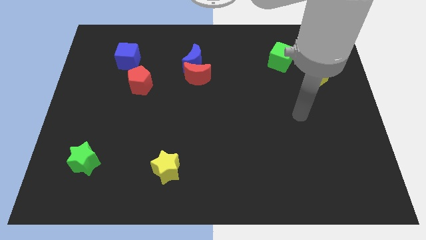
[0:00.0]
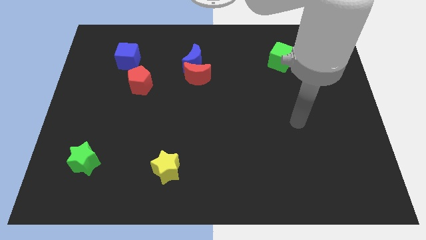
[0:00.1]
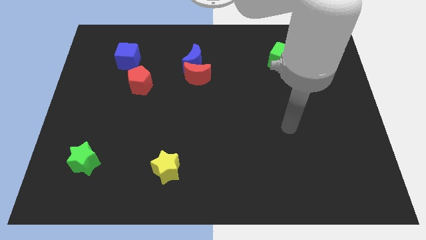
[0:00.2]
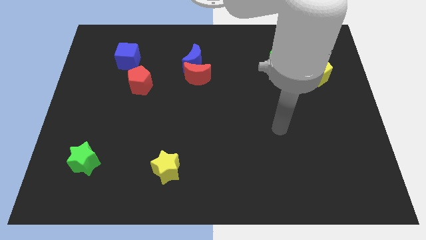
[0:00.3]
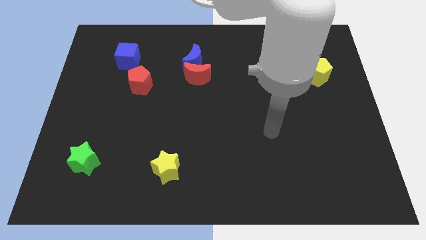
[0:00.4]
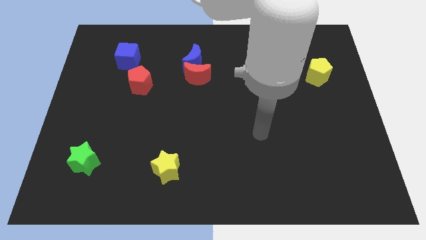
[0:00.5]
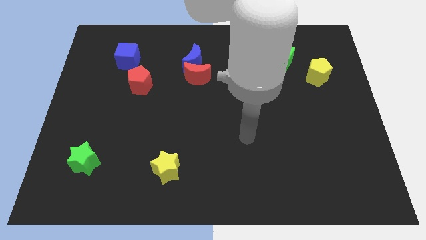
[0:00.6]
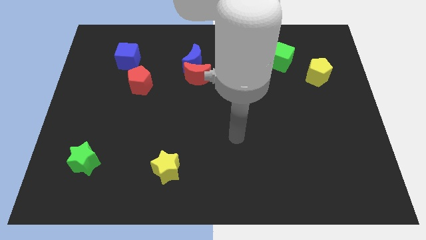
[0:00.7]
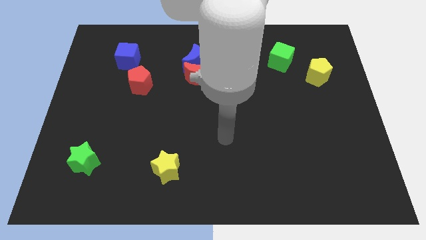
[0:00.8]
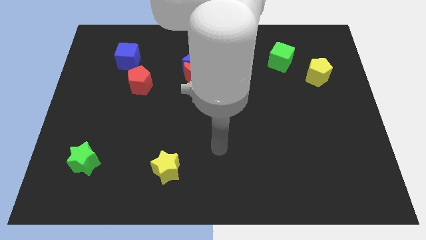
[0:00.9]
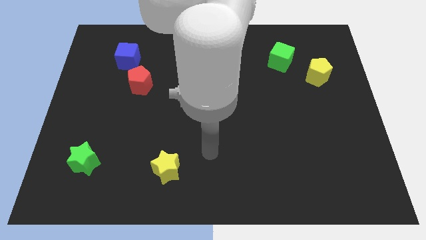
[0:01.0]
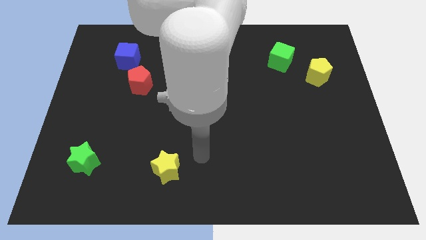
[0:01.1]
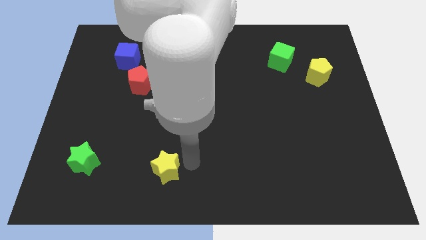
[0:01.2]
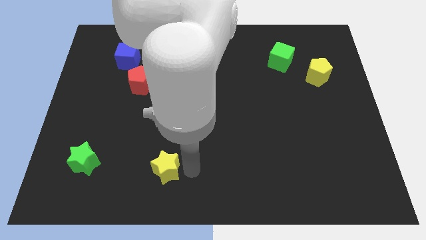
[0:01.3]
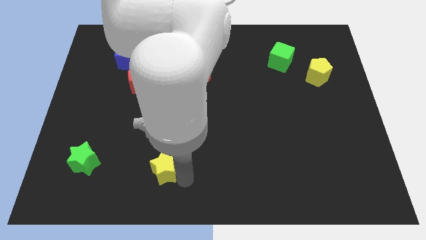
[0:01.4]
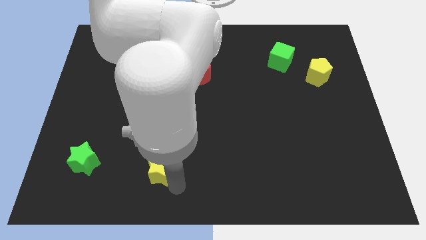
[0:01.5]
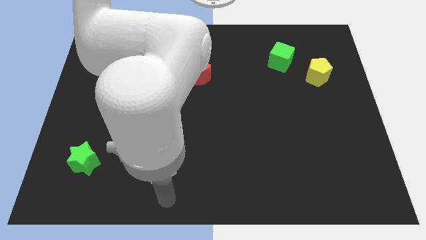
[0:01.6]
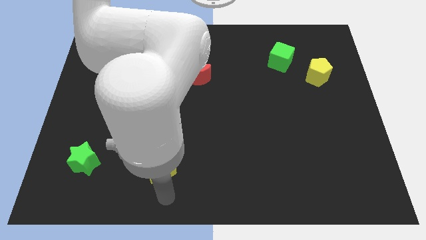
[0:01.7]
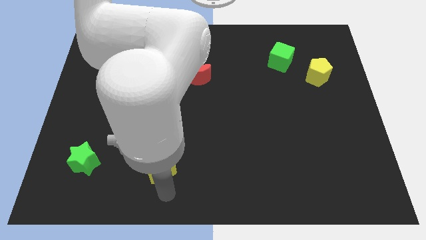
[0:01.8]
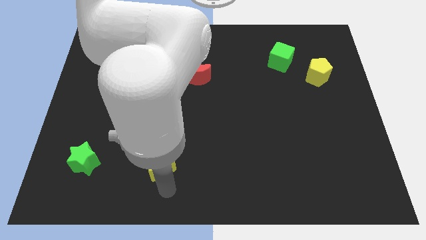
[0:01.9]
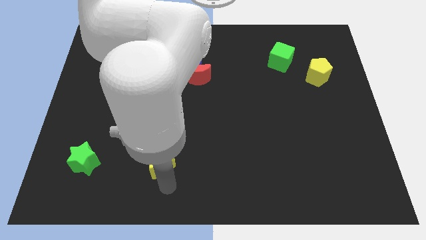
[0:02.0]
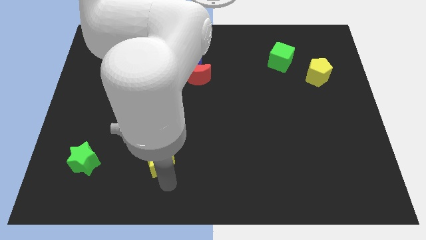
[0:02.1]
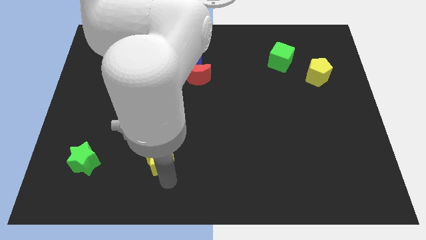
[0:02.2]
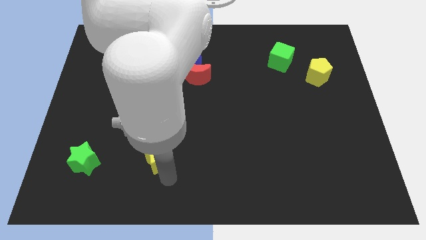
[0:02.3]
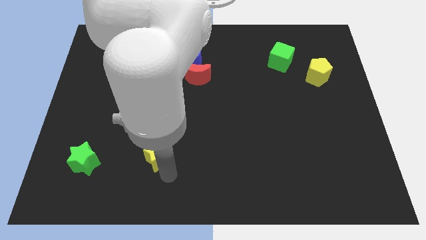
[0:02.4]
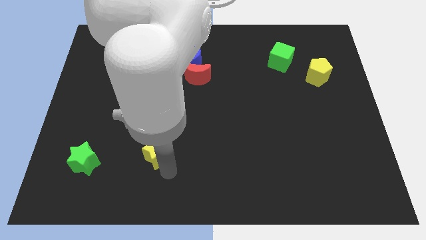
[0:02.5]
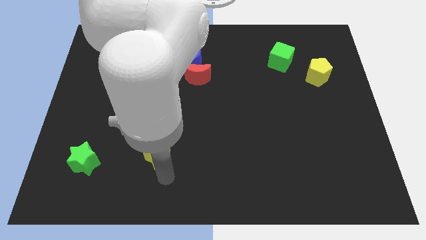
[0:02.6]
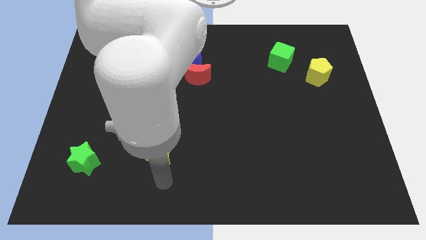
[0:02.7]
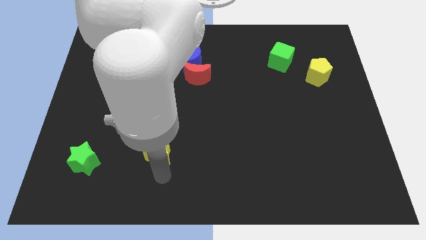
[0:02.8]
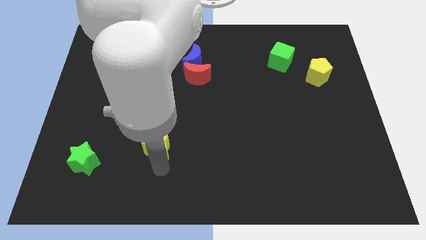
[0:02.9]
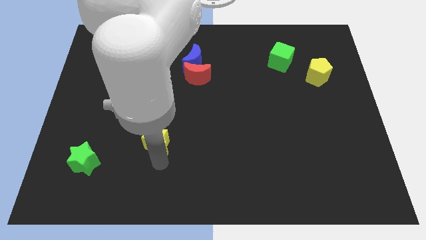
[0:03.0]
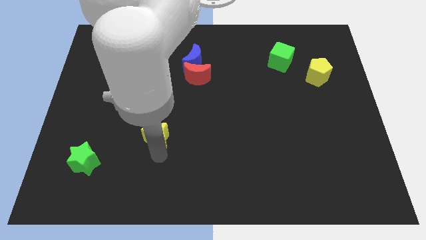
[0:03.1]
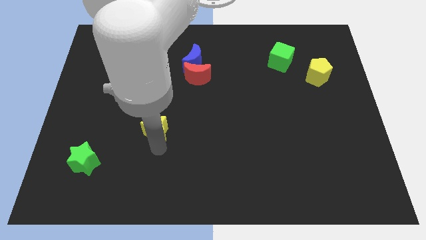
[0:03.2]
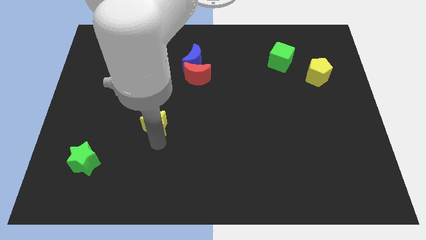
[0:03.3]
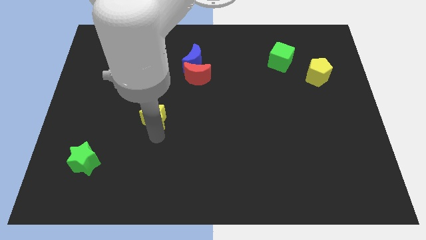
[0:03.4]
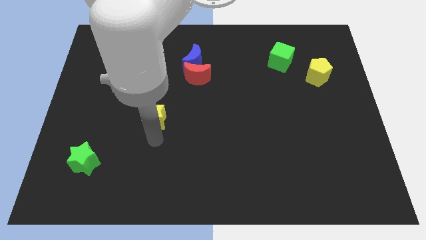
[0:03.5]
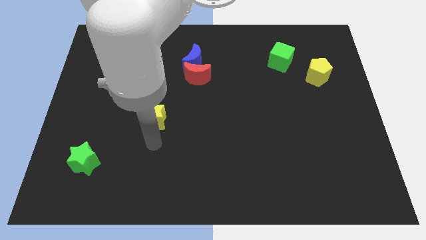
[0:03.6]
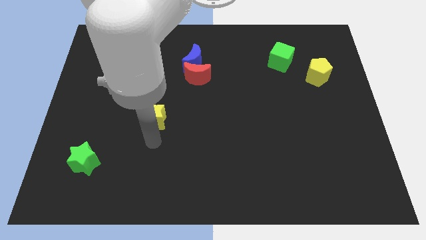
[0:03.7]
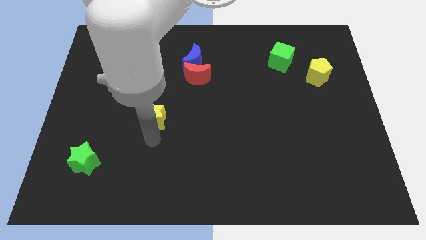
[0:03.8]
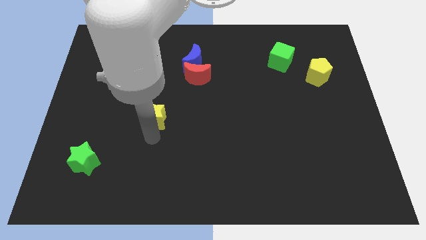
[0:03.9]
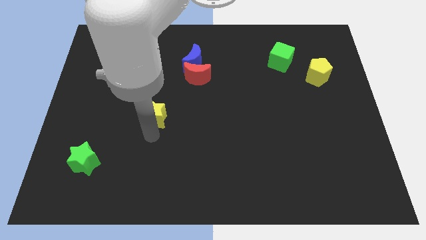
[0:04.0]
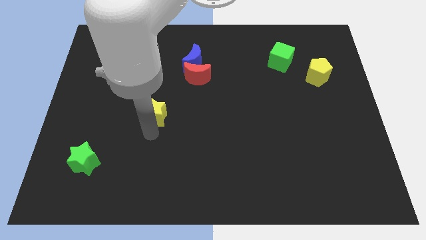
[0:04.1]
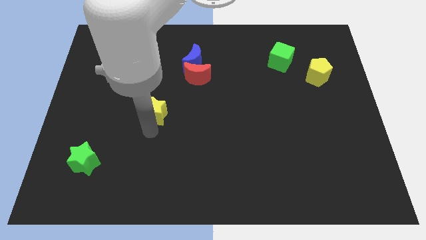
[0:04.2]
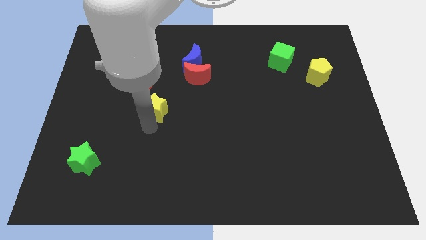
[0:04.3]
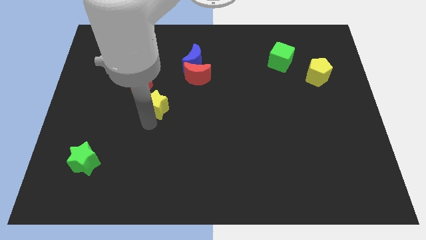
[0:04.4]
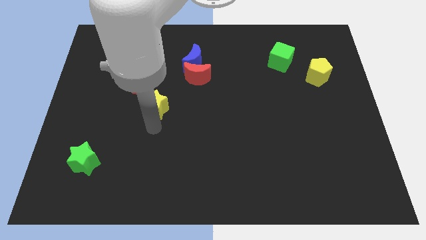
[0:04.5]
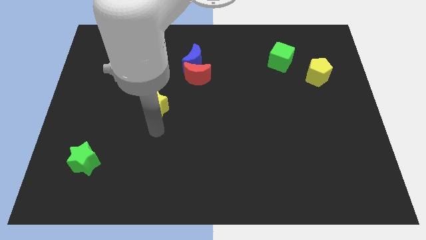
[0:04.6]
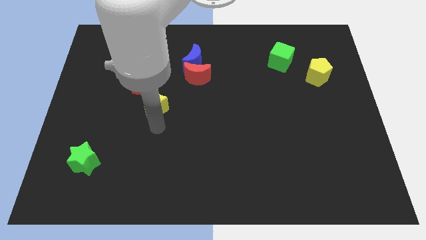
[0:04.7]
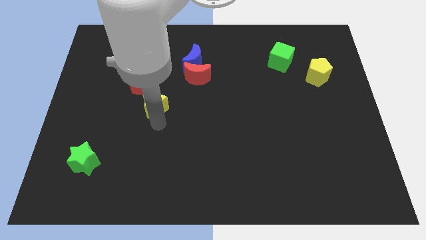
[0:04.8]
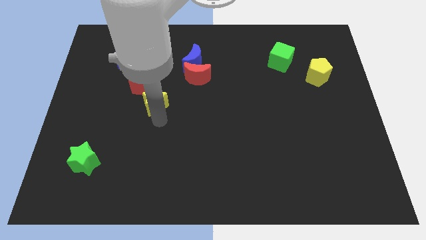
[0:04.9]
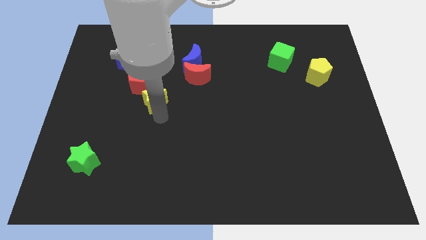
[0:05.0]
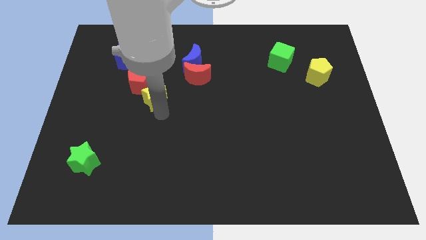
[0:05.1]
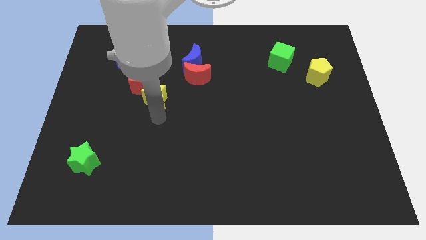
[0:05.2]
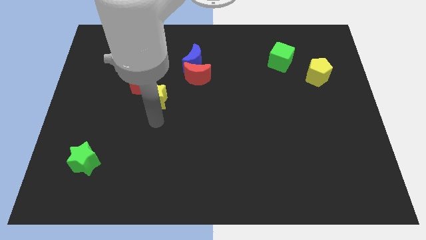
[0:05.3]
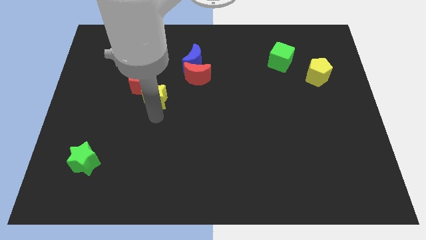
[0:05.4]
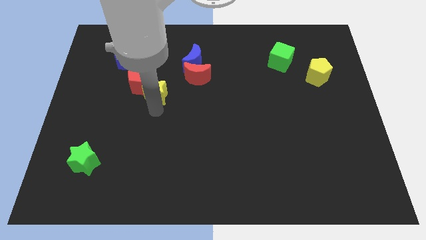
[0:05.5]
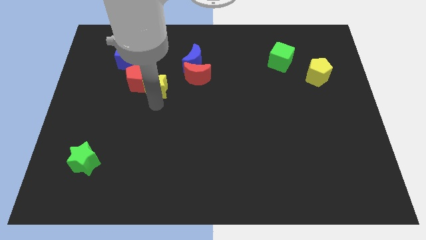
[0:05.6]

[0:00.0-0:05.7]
slide the yellow star left of the red moon

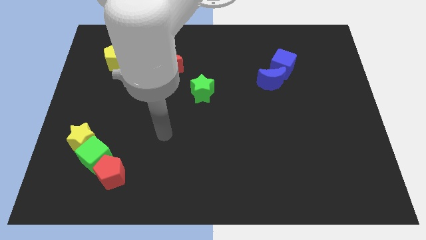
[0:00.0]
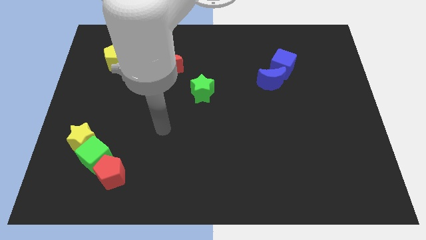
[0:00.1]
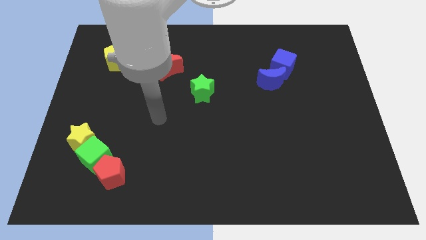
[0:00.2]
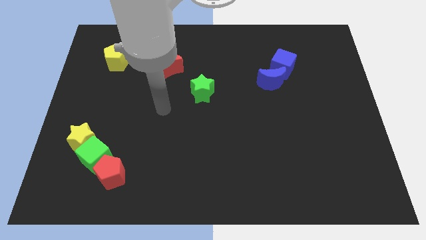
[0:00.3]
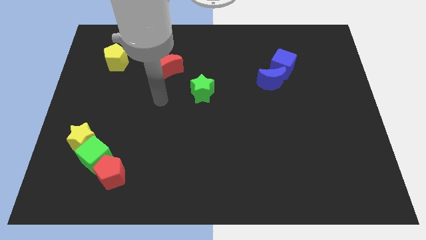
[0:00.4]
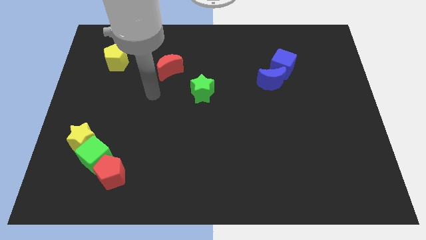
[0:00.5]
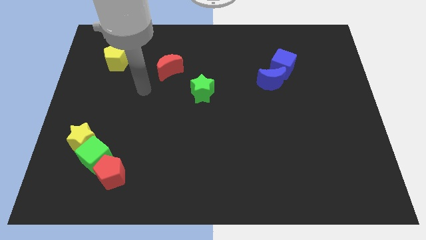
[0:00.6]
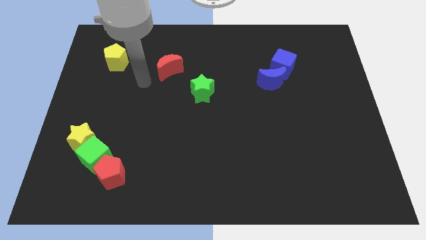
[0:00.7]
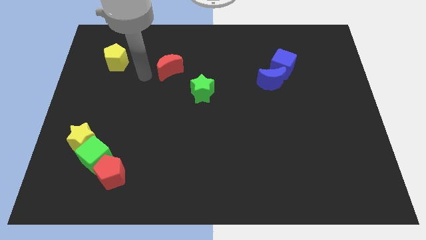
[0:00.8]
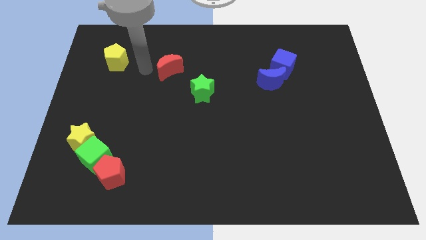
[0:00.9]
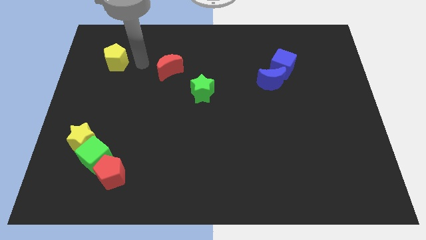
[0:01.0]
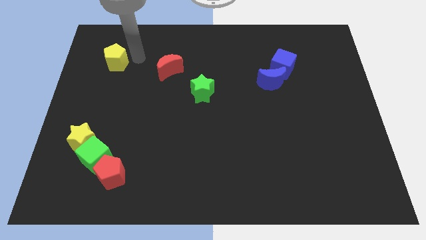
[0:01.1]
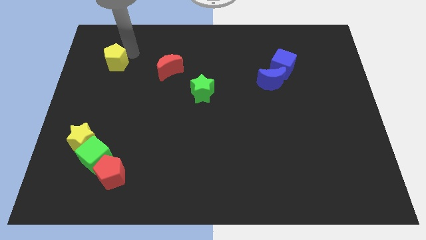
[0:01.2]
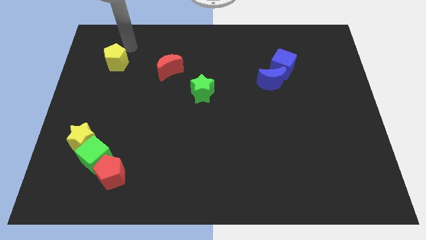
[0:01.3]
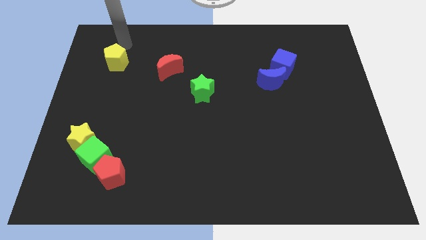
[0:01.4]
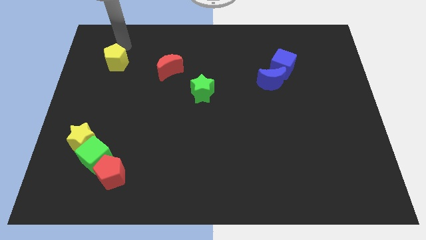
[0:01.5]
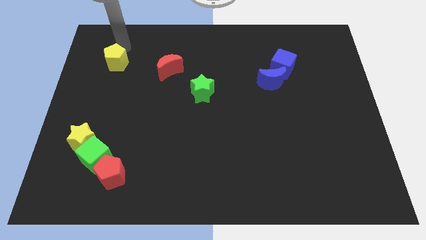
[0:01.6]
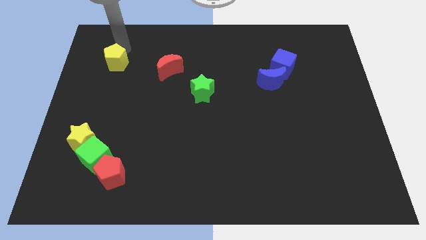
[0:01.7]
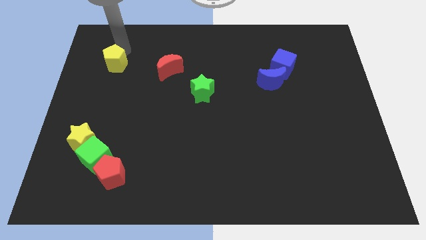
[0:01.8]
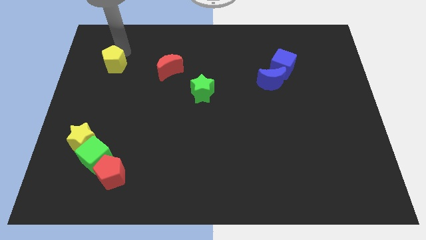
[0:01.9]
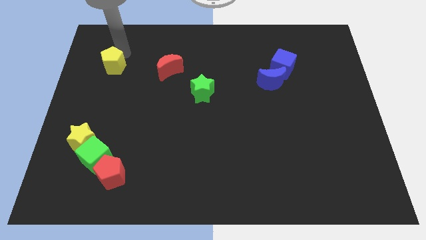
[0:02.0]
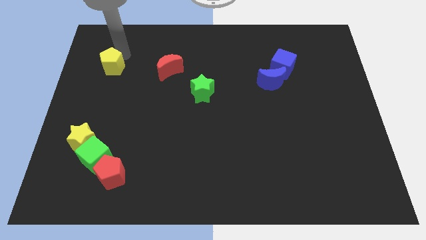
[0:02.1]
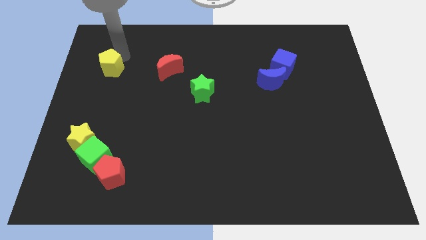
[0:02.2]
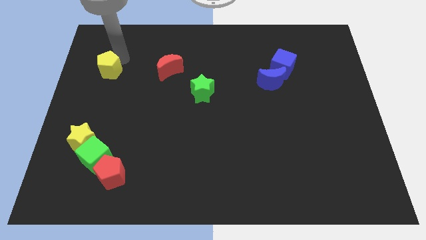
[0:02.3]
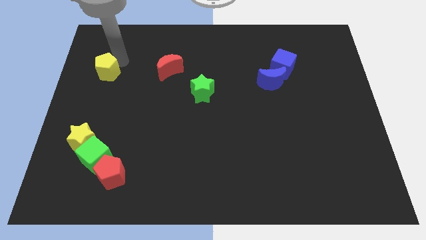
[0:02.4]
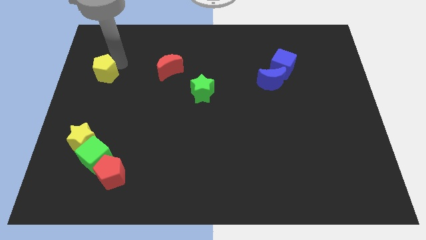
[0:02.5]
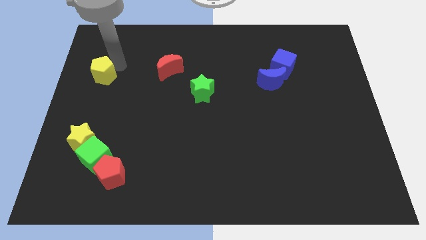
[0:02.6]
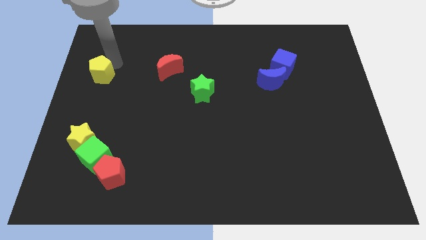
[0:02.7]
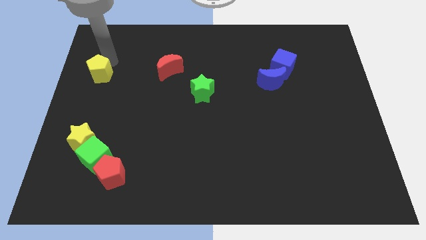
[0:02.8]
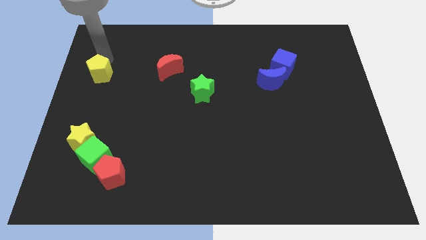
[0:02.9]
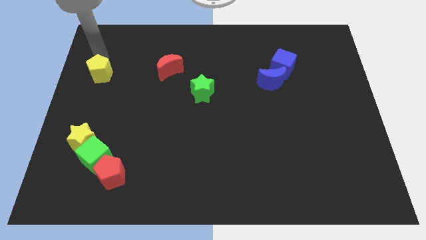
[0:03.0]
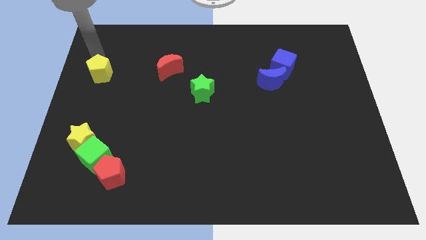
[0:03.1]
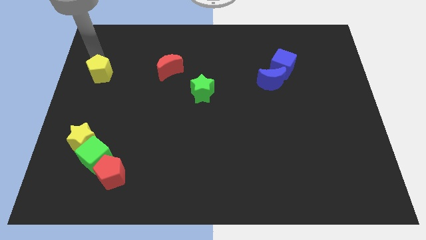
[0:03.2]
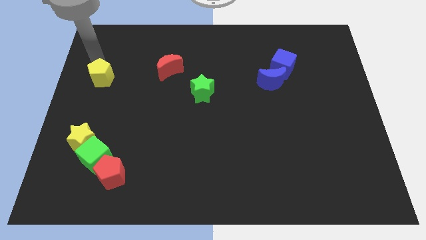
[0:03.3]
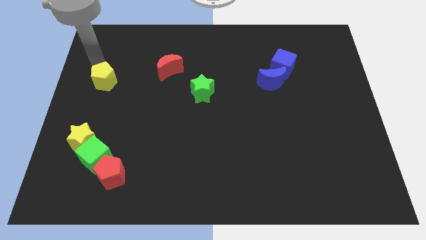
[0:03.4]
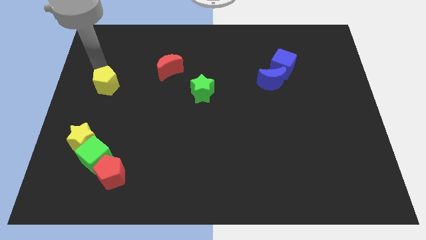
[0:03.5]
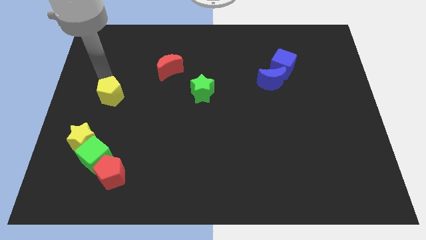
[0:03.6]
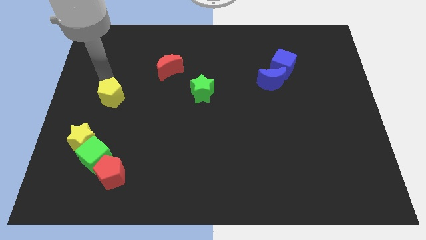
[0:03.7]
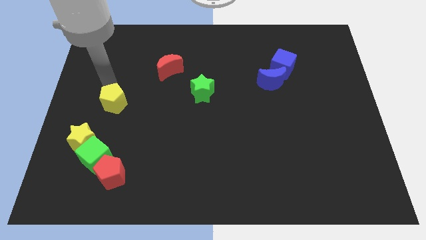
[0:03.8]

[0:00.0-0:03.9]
put the yellow pentagon above the green cube
